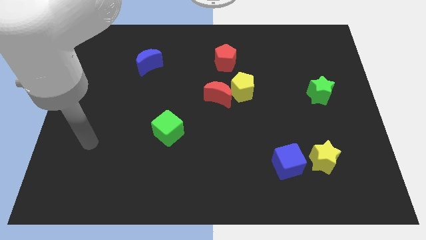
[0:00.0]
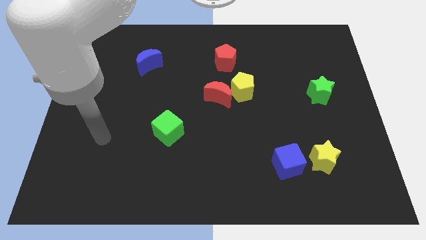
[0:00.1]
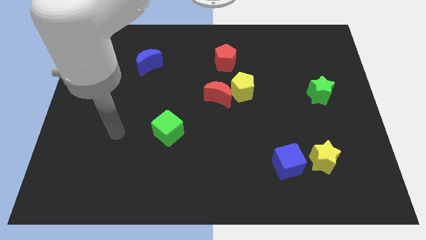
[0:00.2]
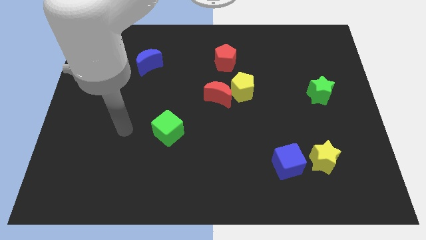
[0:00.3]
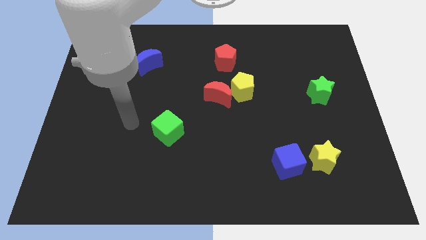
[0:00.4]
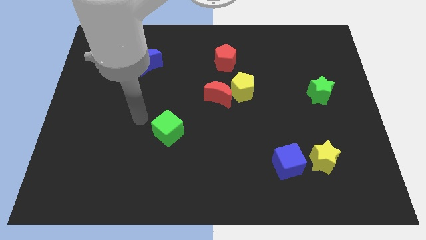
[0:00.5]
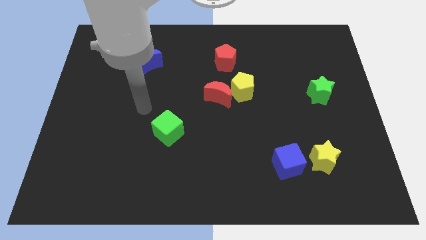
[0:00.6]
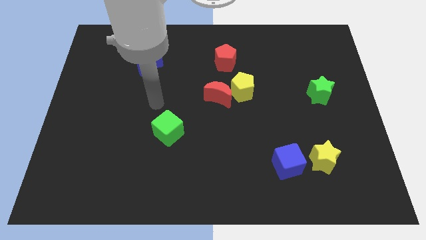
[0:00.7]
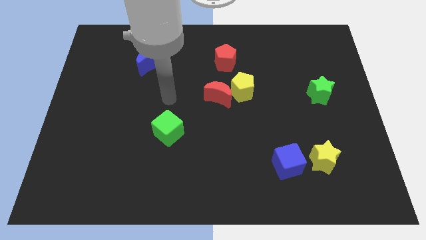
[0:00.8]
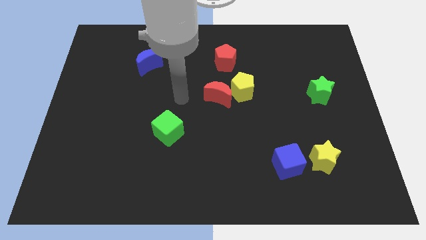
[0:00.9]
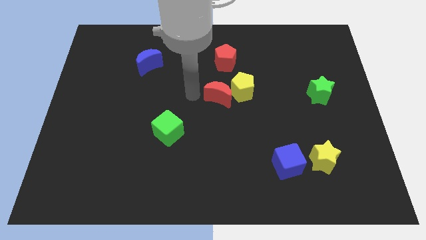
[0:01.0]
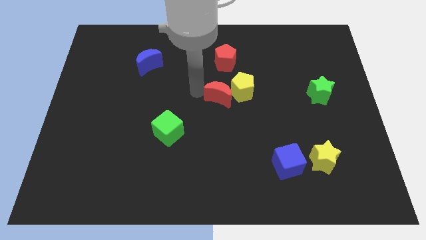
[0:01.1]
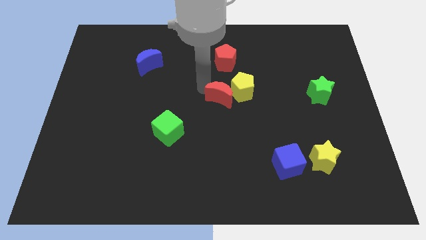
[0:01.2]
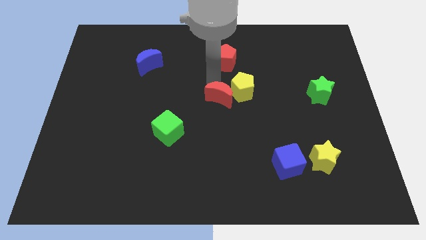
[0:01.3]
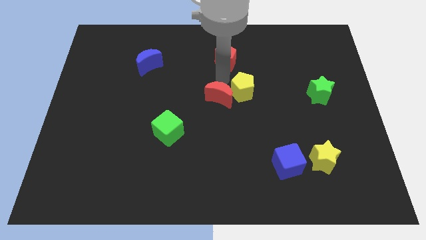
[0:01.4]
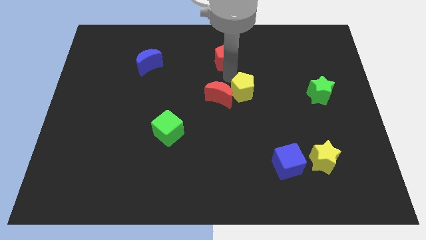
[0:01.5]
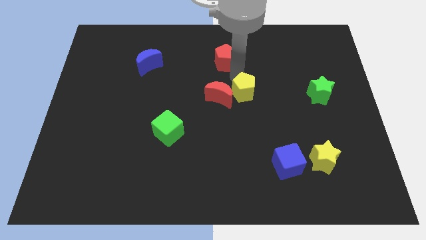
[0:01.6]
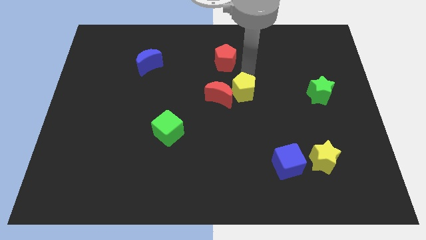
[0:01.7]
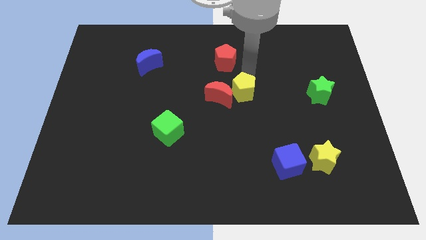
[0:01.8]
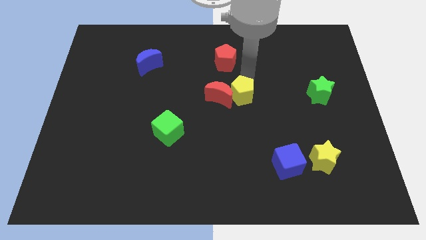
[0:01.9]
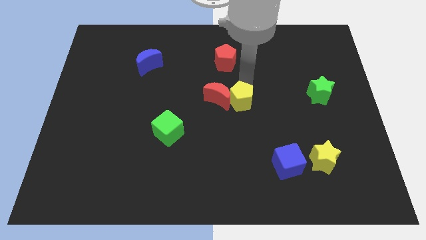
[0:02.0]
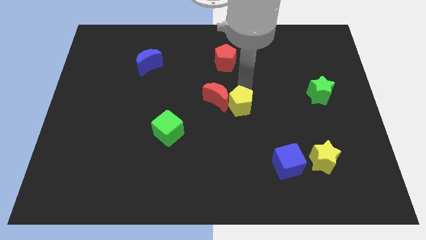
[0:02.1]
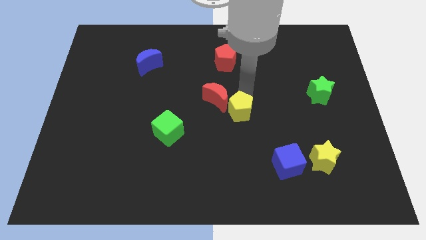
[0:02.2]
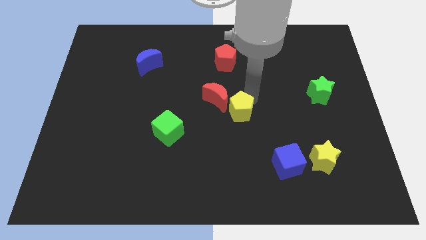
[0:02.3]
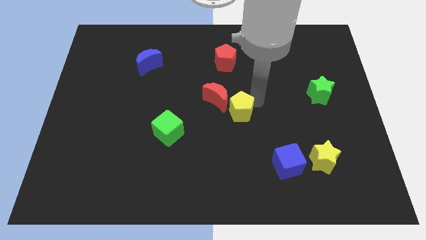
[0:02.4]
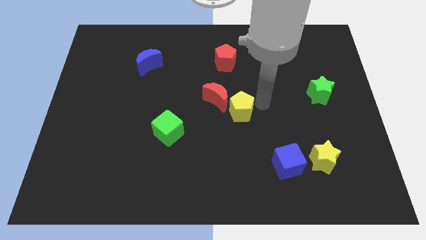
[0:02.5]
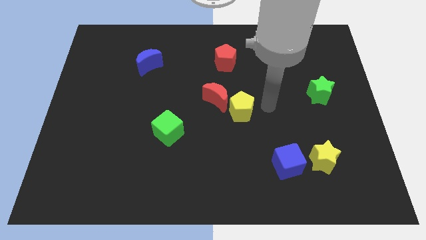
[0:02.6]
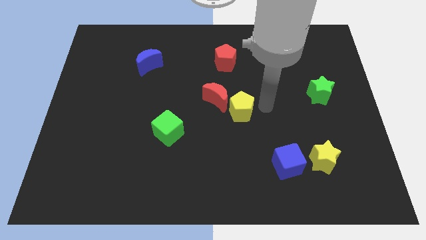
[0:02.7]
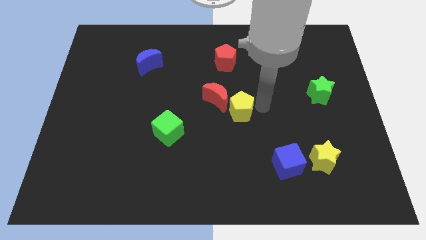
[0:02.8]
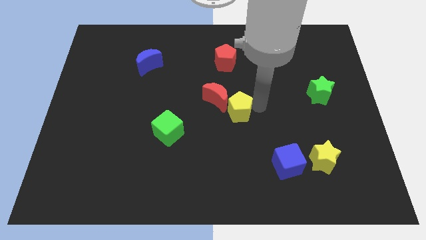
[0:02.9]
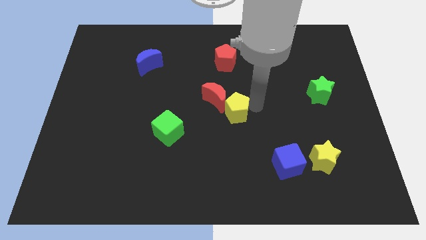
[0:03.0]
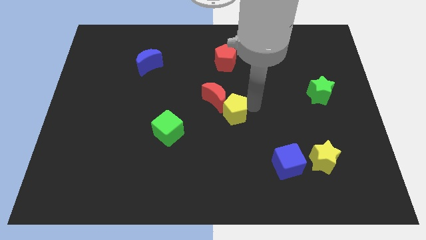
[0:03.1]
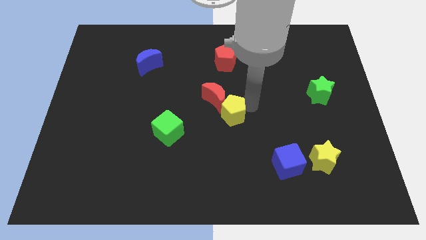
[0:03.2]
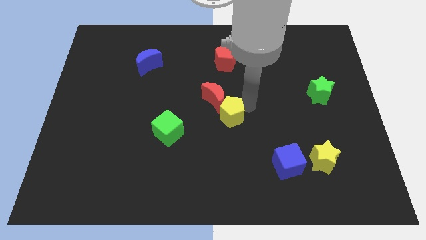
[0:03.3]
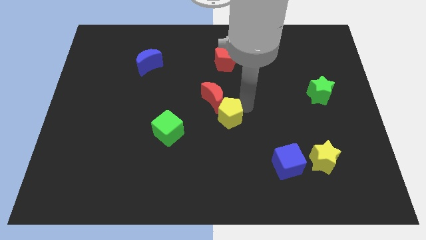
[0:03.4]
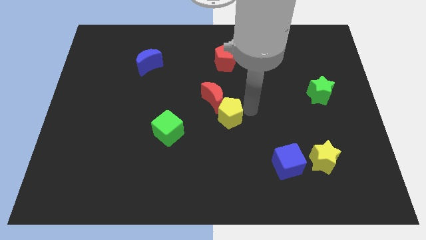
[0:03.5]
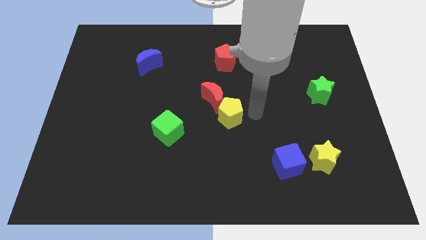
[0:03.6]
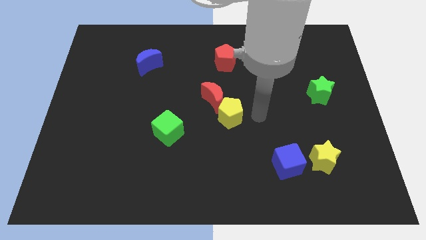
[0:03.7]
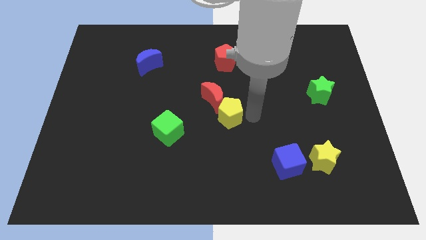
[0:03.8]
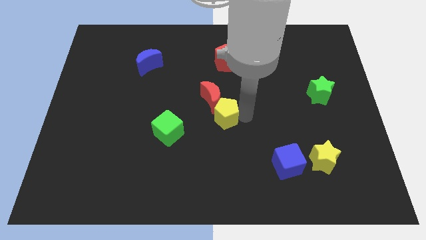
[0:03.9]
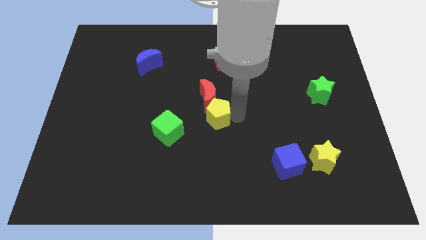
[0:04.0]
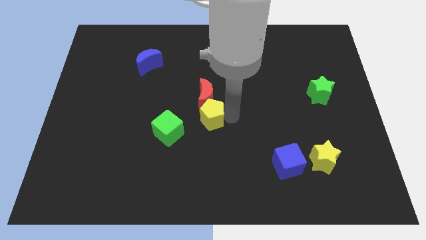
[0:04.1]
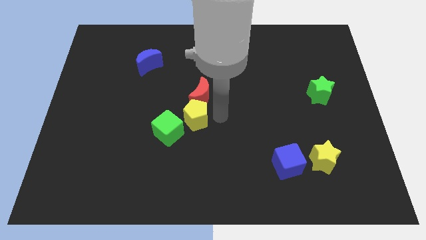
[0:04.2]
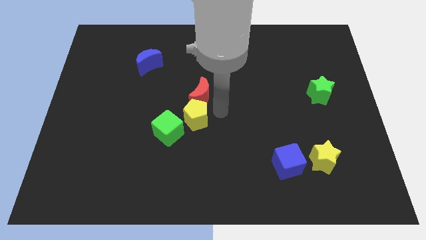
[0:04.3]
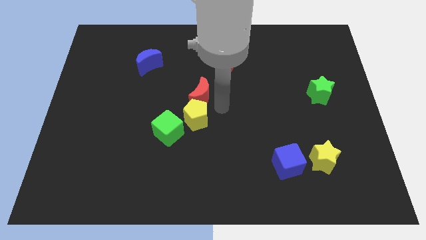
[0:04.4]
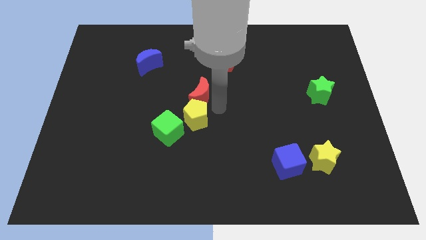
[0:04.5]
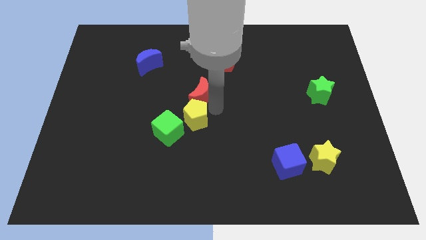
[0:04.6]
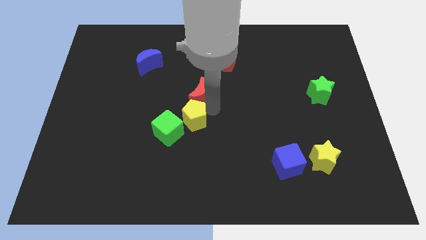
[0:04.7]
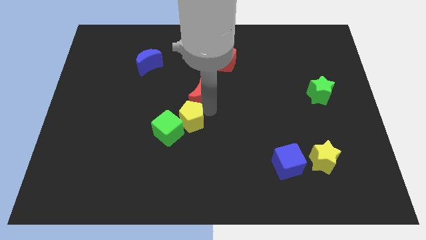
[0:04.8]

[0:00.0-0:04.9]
move the yellow pentagon to the green cube

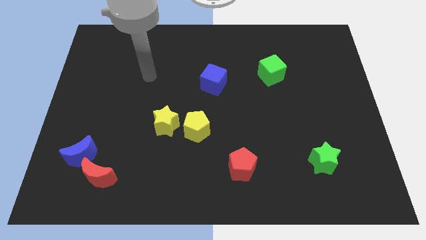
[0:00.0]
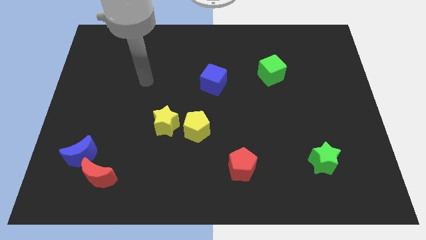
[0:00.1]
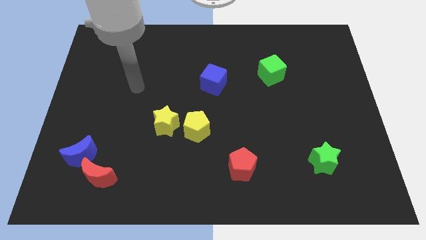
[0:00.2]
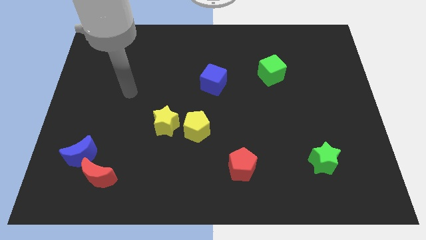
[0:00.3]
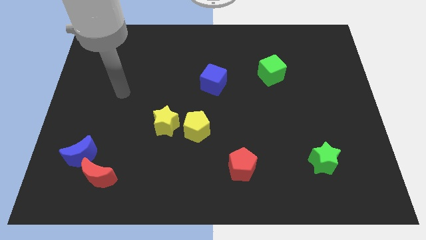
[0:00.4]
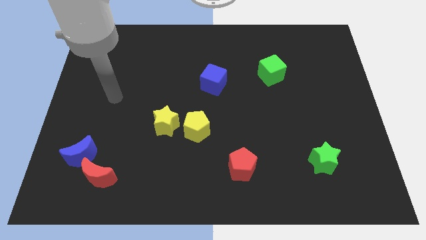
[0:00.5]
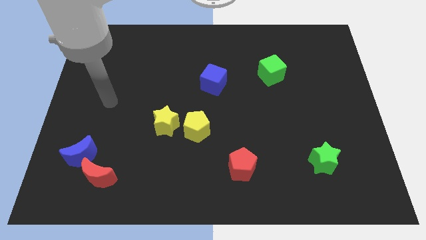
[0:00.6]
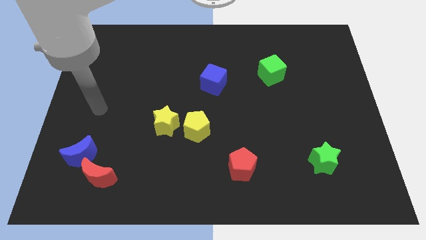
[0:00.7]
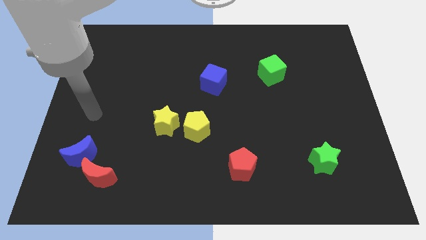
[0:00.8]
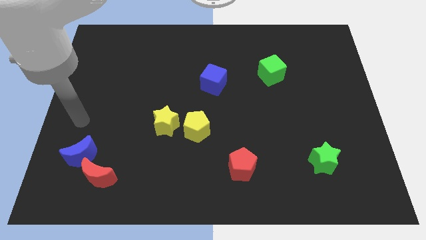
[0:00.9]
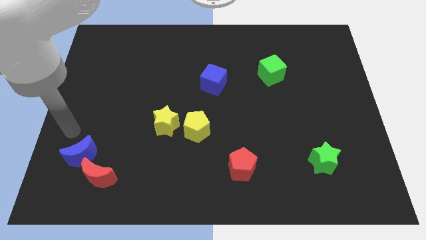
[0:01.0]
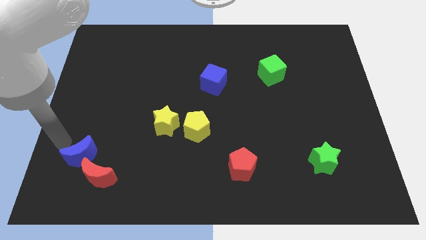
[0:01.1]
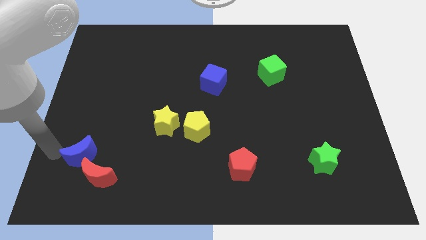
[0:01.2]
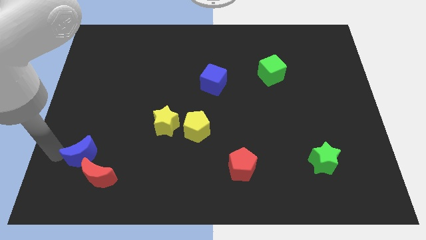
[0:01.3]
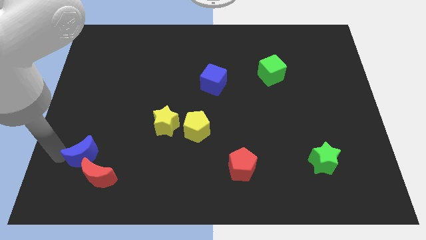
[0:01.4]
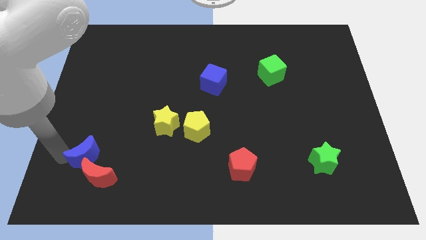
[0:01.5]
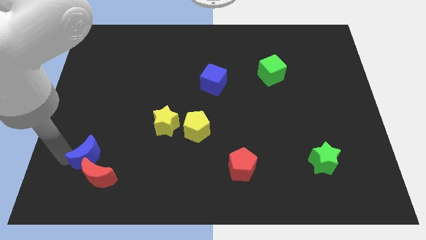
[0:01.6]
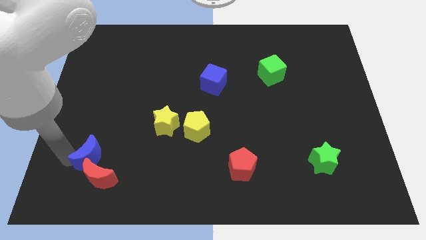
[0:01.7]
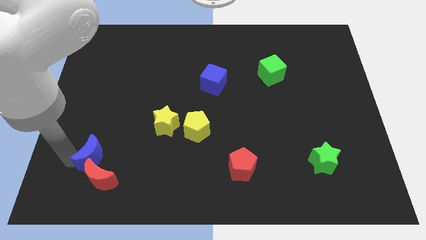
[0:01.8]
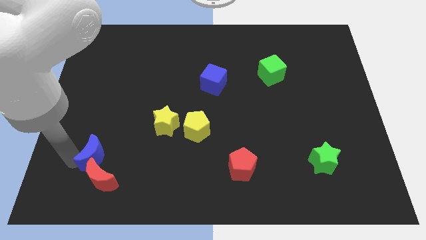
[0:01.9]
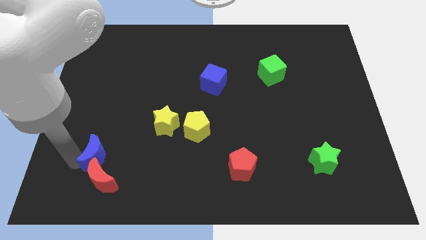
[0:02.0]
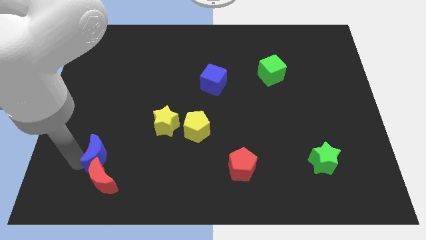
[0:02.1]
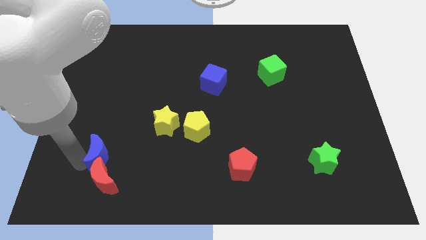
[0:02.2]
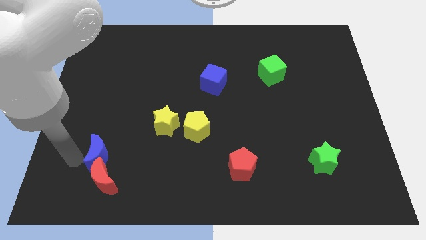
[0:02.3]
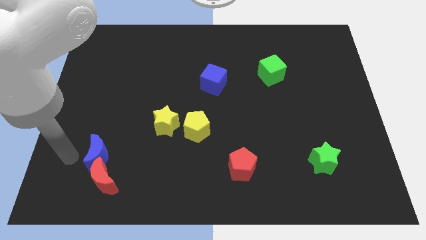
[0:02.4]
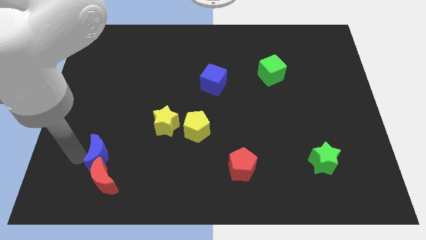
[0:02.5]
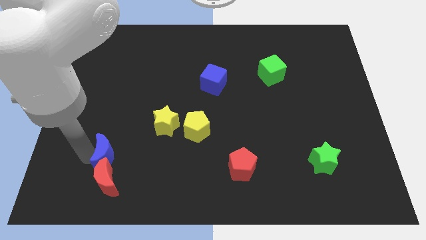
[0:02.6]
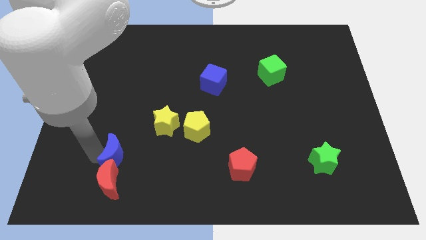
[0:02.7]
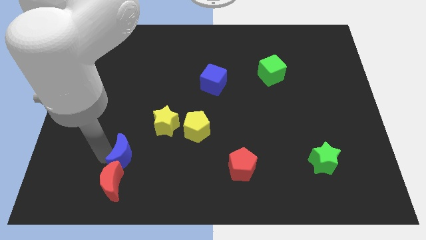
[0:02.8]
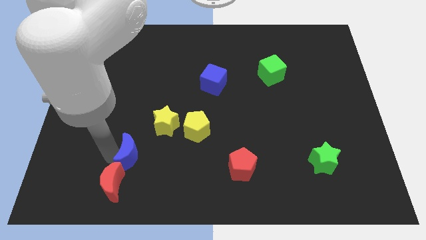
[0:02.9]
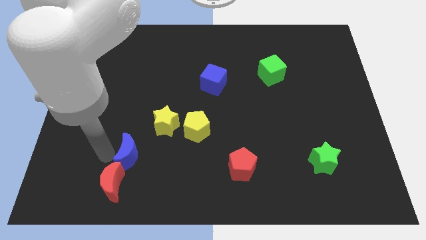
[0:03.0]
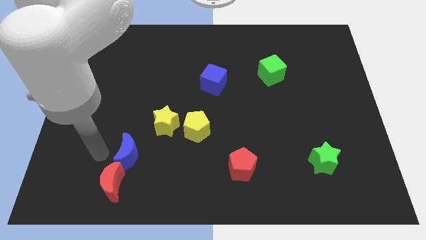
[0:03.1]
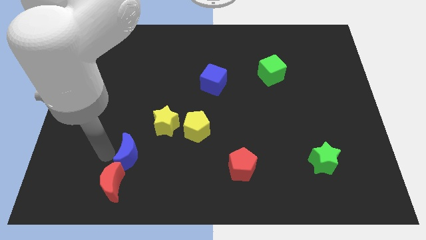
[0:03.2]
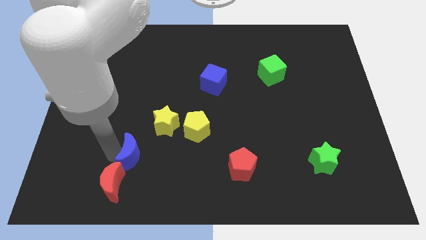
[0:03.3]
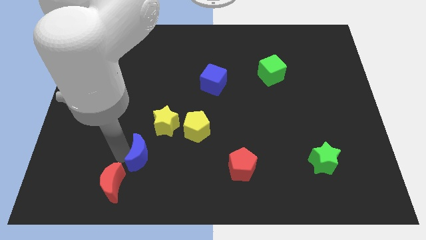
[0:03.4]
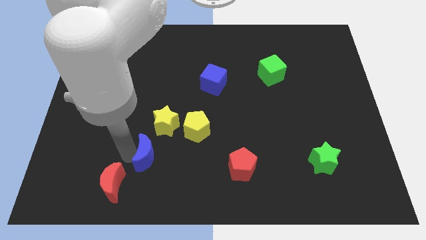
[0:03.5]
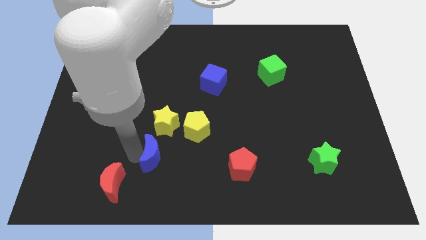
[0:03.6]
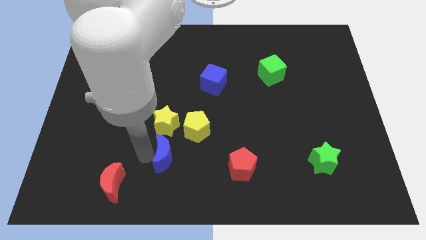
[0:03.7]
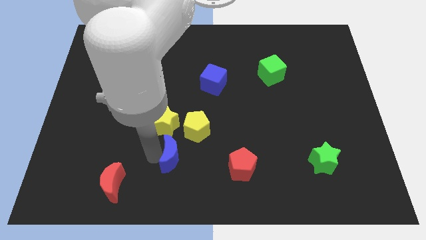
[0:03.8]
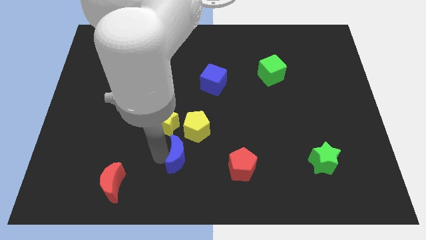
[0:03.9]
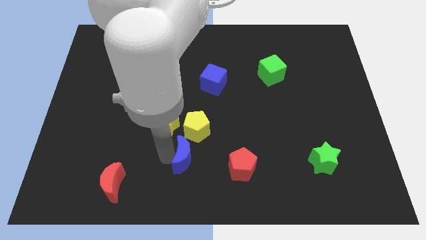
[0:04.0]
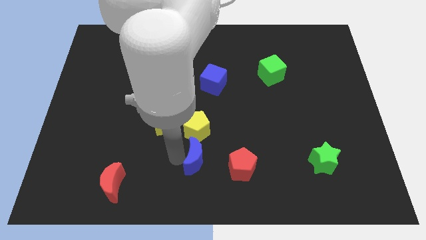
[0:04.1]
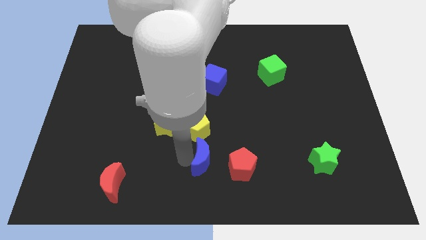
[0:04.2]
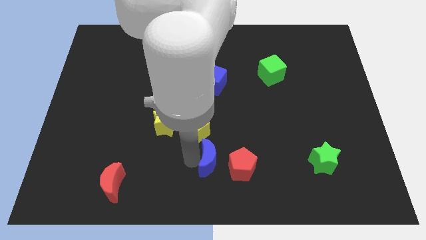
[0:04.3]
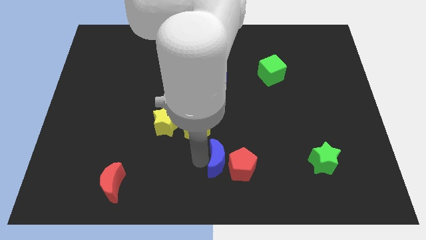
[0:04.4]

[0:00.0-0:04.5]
slide the blue moon to the red pentagon
